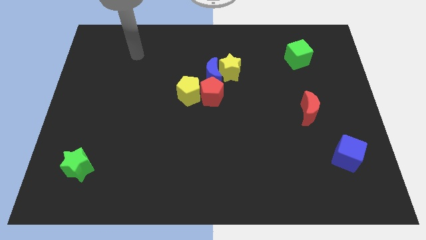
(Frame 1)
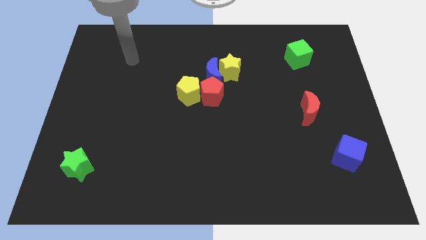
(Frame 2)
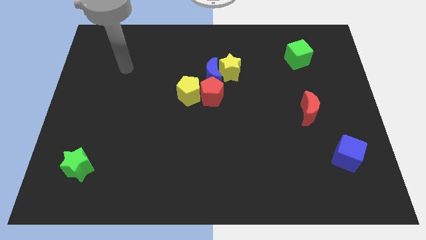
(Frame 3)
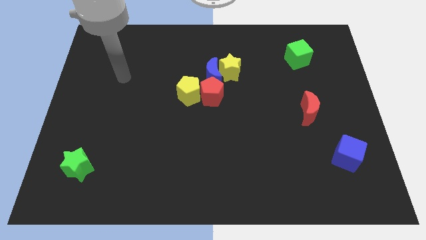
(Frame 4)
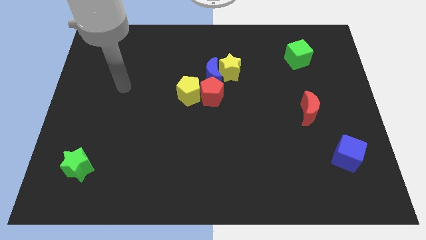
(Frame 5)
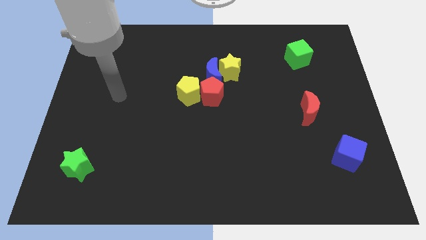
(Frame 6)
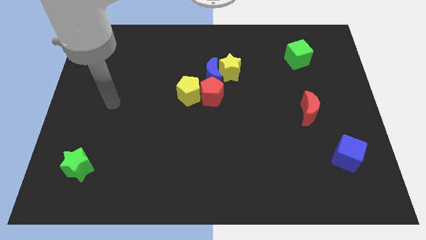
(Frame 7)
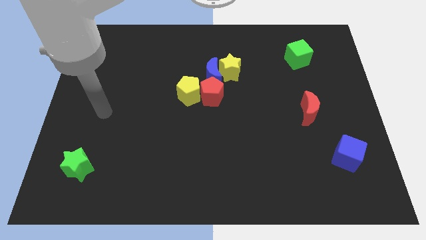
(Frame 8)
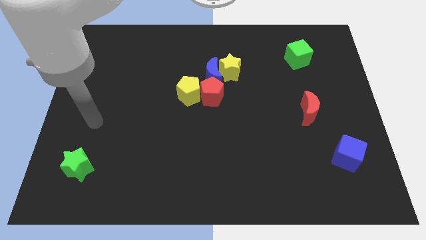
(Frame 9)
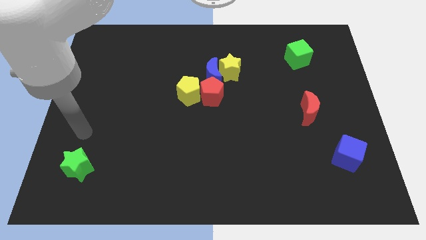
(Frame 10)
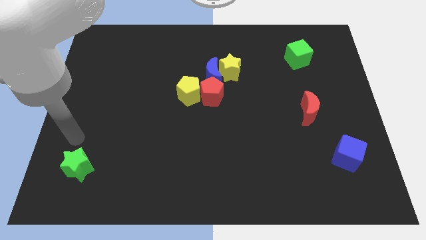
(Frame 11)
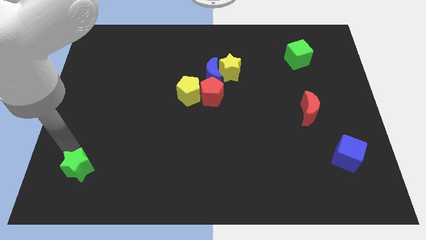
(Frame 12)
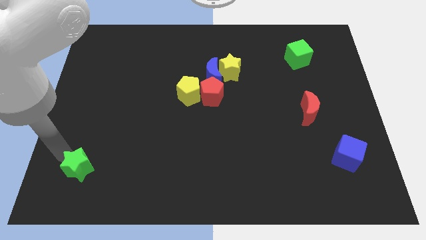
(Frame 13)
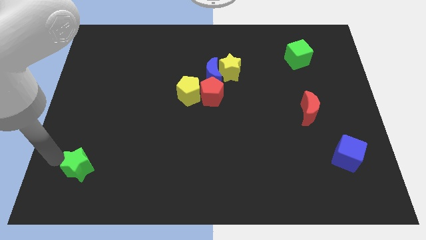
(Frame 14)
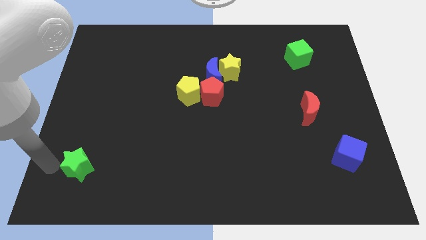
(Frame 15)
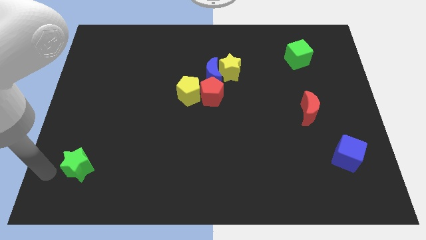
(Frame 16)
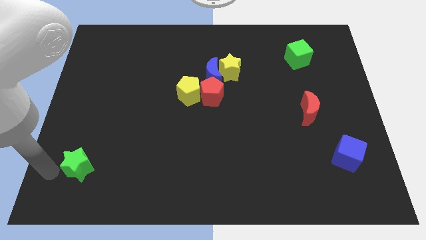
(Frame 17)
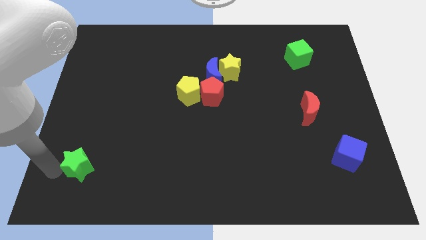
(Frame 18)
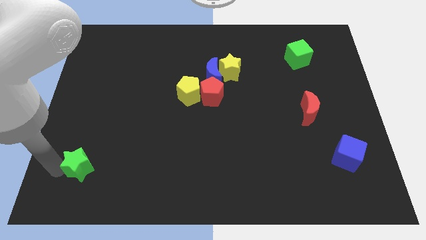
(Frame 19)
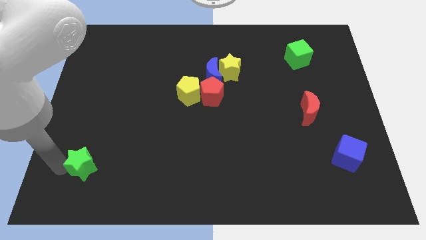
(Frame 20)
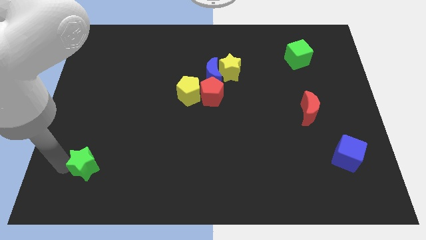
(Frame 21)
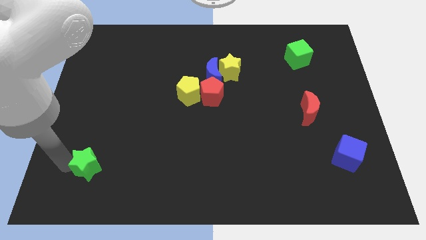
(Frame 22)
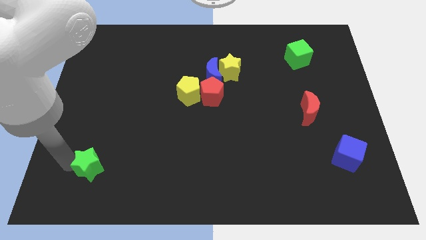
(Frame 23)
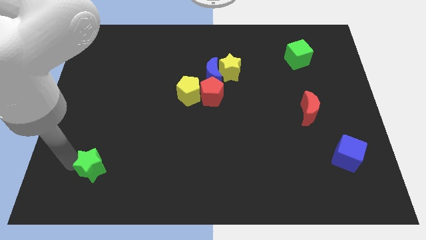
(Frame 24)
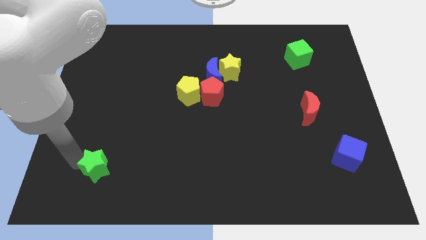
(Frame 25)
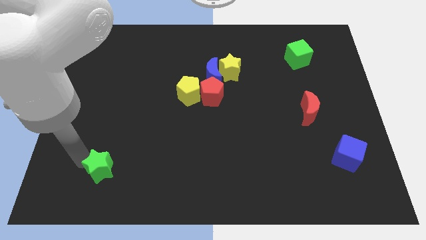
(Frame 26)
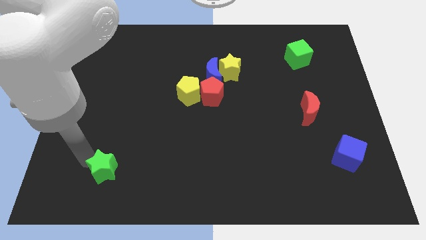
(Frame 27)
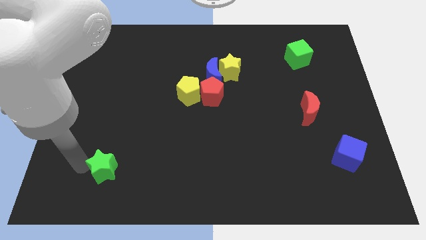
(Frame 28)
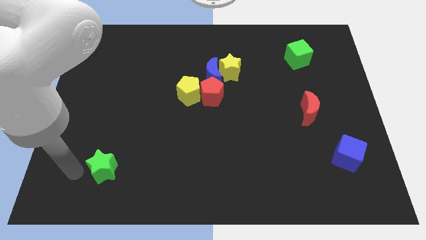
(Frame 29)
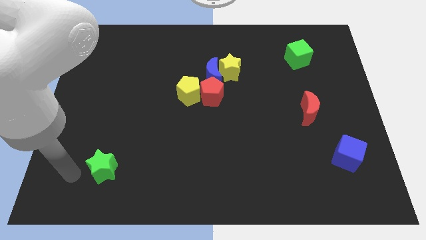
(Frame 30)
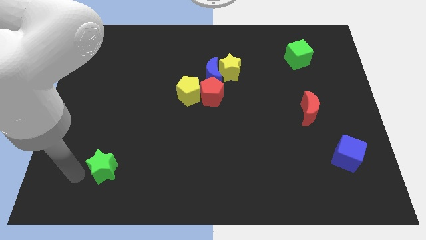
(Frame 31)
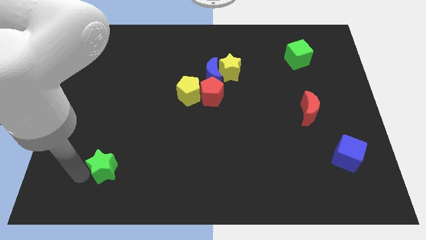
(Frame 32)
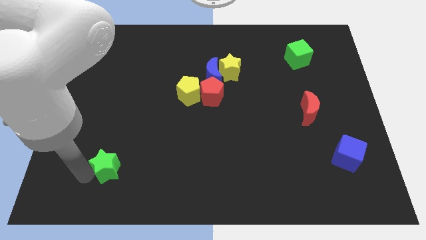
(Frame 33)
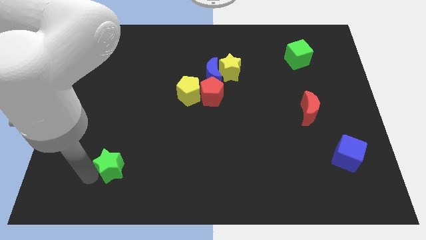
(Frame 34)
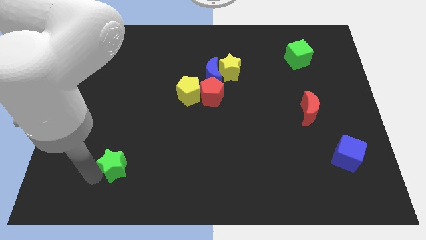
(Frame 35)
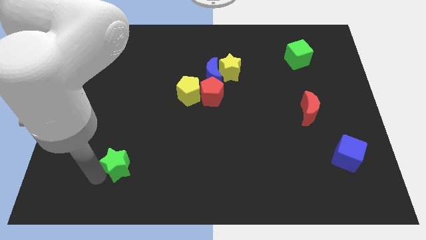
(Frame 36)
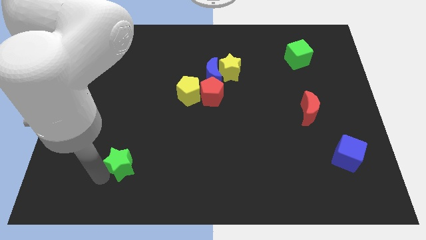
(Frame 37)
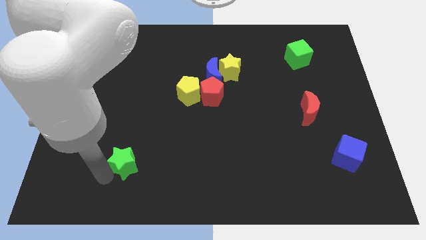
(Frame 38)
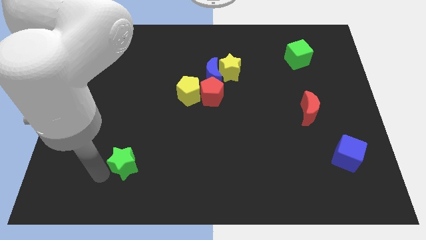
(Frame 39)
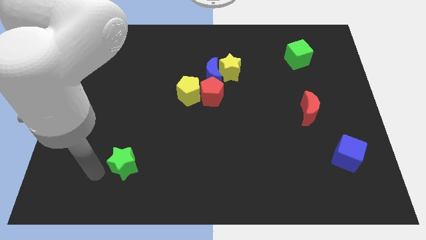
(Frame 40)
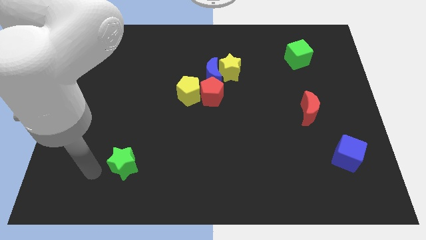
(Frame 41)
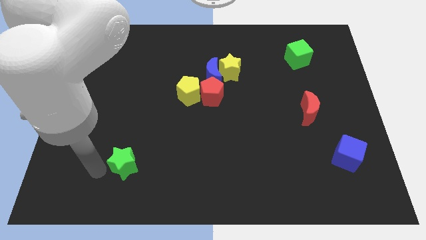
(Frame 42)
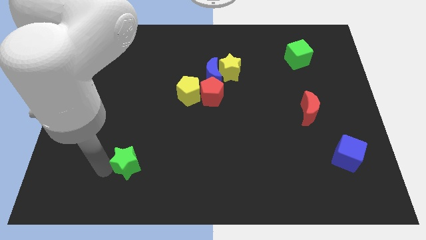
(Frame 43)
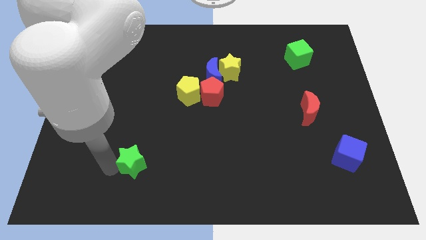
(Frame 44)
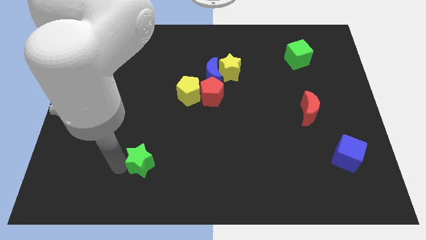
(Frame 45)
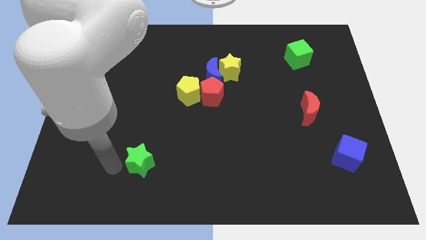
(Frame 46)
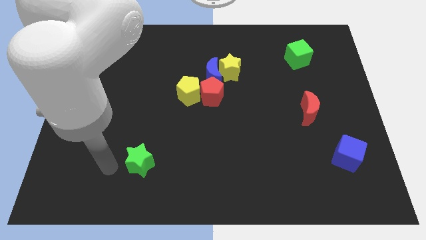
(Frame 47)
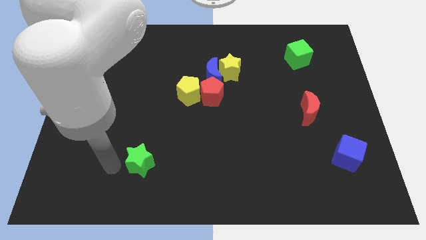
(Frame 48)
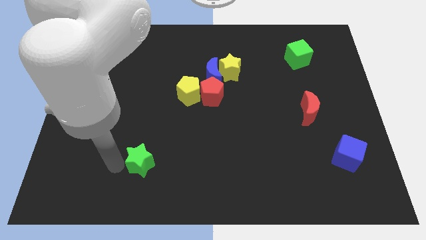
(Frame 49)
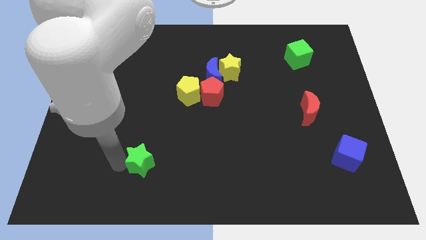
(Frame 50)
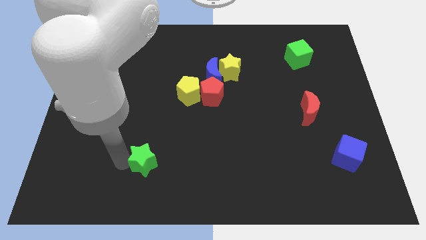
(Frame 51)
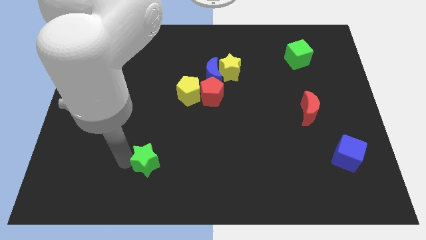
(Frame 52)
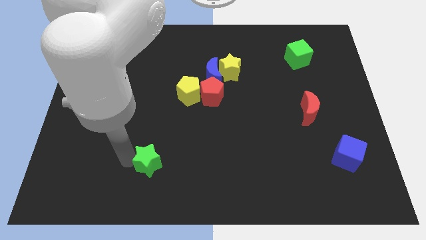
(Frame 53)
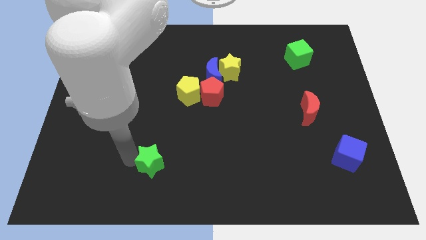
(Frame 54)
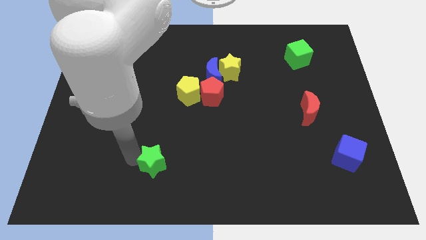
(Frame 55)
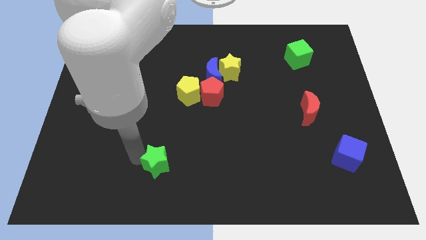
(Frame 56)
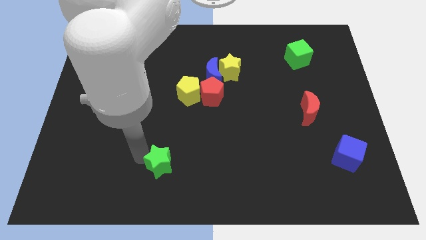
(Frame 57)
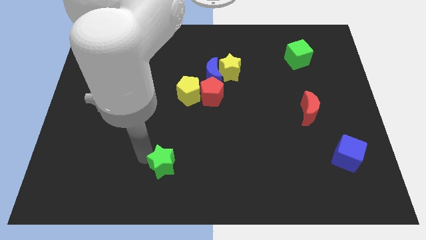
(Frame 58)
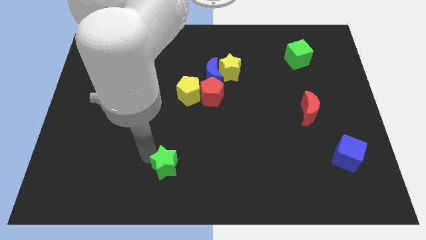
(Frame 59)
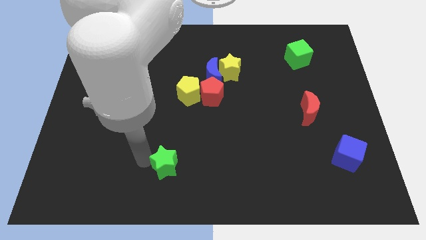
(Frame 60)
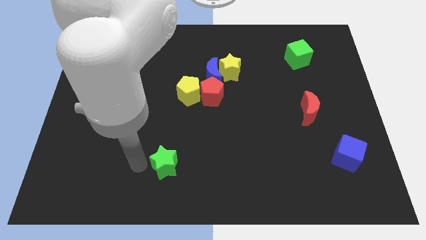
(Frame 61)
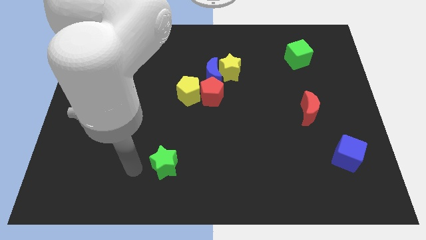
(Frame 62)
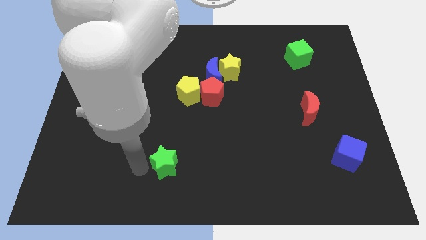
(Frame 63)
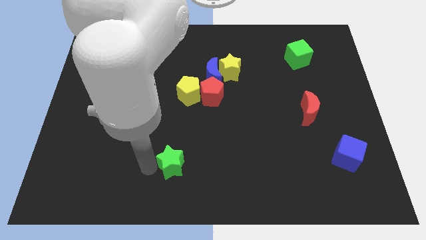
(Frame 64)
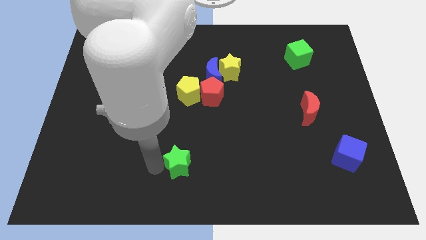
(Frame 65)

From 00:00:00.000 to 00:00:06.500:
slide the green star to the right

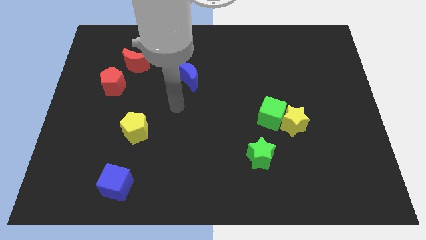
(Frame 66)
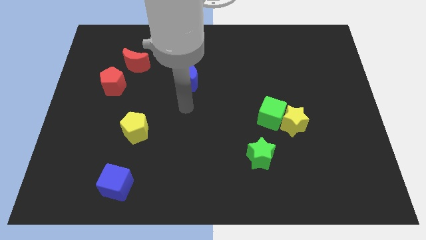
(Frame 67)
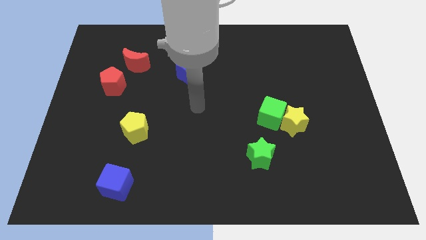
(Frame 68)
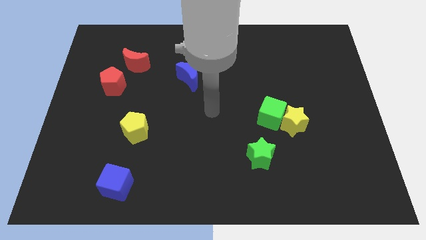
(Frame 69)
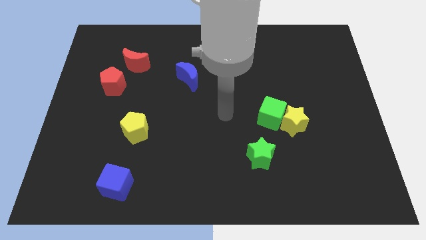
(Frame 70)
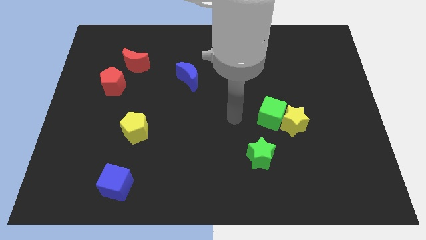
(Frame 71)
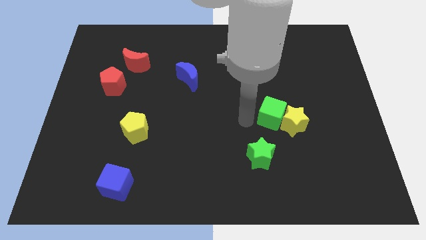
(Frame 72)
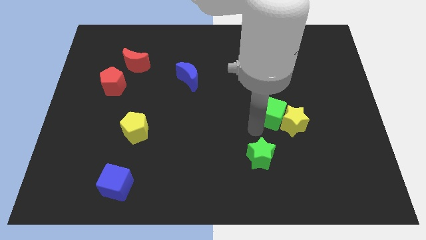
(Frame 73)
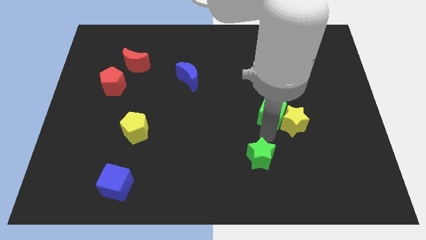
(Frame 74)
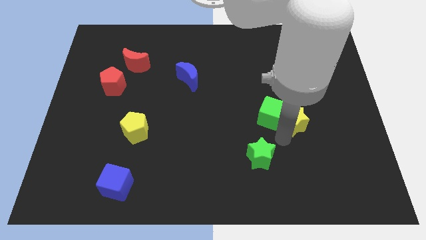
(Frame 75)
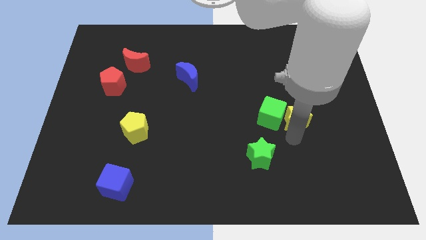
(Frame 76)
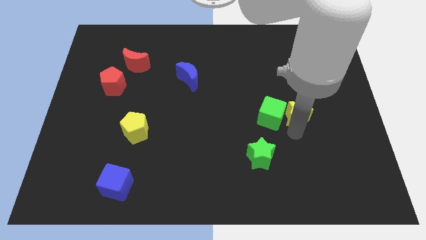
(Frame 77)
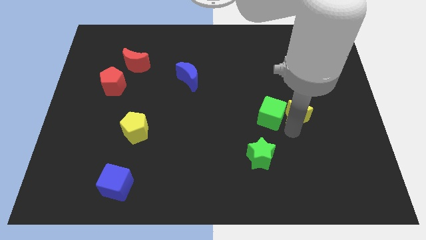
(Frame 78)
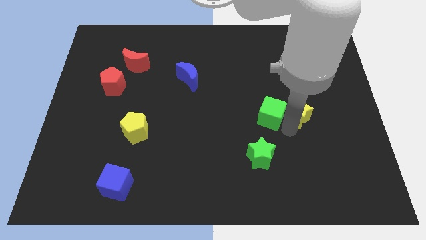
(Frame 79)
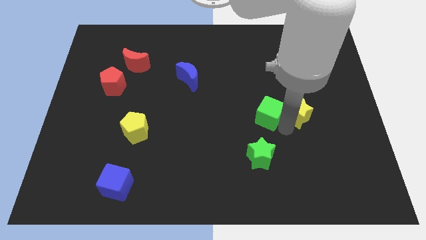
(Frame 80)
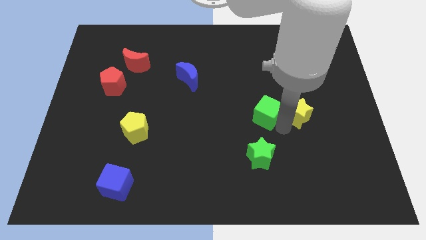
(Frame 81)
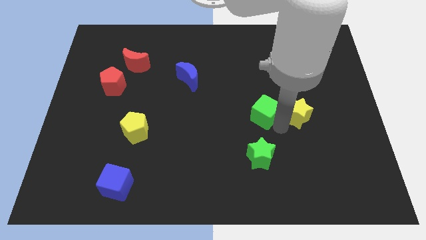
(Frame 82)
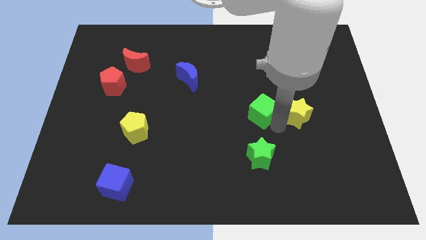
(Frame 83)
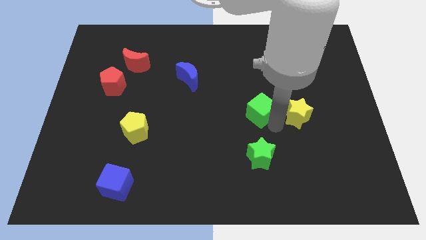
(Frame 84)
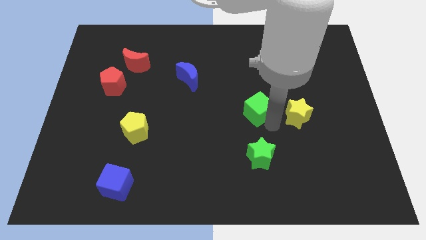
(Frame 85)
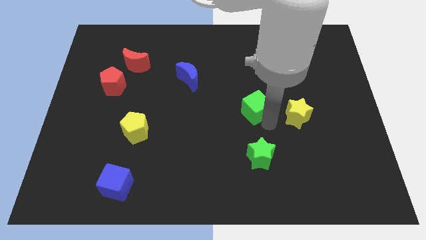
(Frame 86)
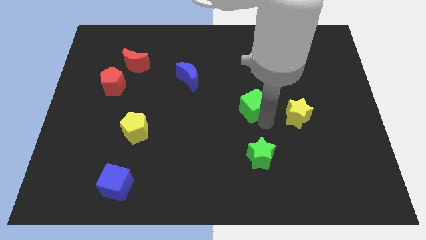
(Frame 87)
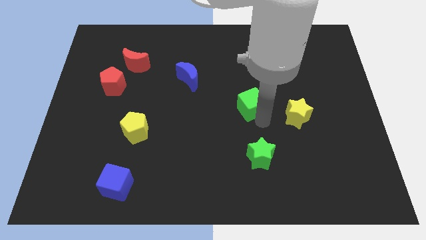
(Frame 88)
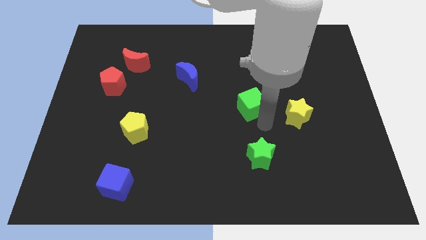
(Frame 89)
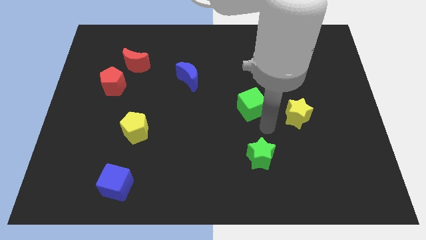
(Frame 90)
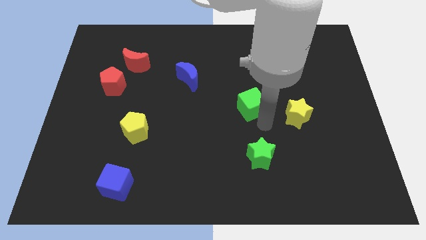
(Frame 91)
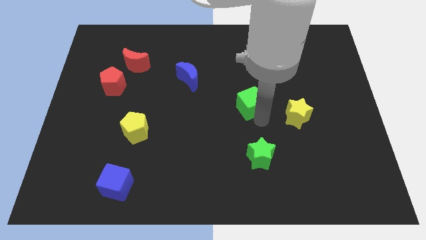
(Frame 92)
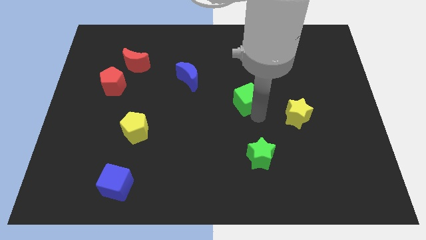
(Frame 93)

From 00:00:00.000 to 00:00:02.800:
push the green cube slightly up and left
